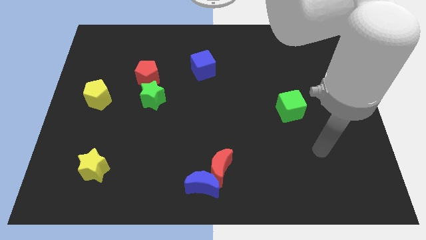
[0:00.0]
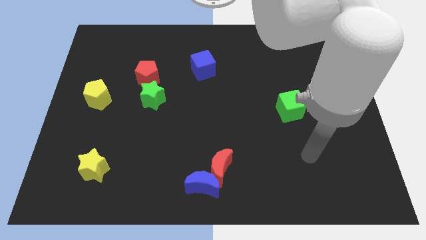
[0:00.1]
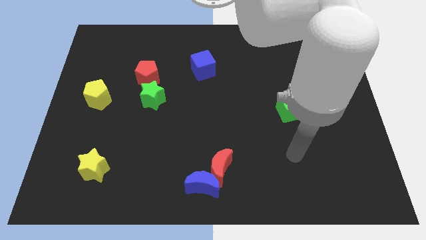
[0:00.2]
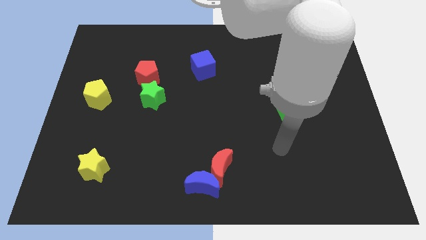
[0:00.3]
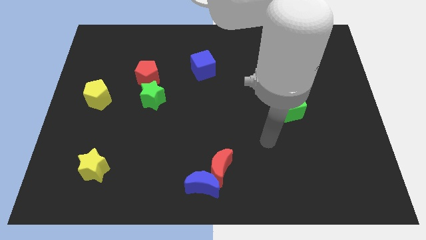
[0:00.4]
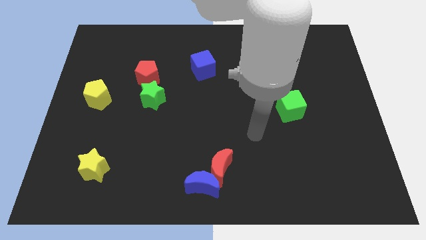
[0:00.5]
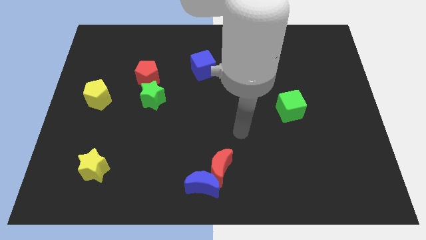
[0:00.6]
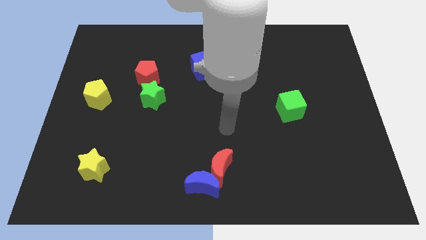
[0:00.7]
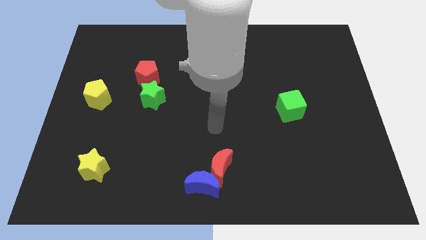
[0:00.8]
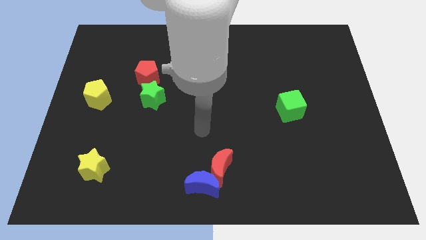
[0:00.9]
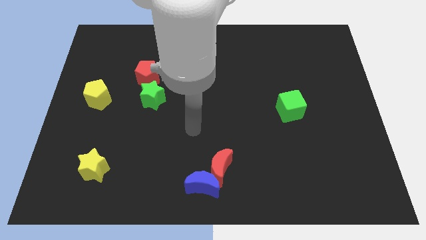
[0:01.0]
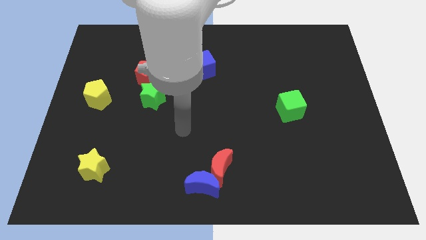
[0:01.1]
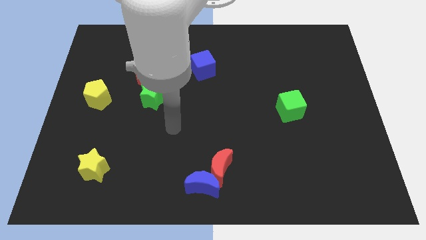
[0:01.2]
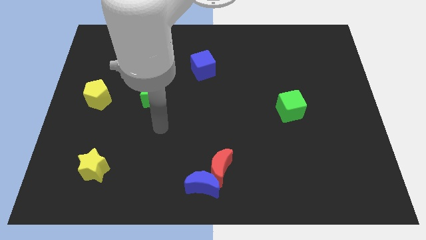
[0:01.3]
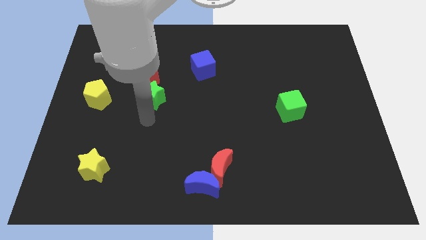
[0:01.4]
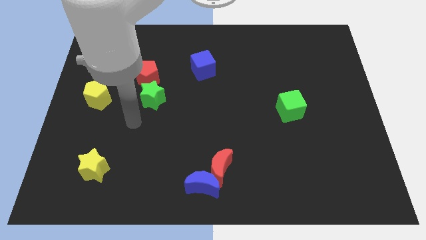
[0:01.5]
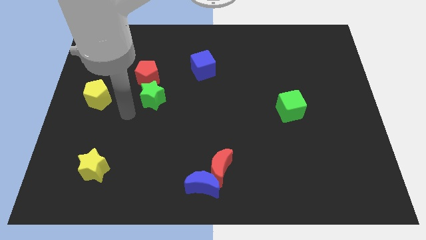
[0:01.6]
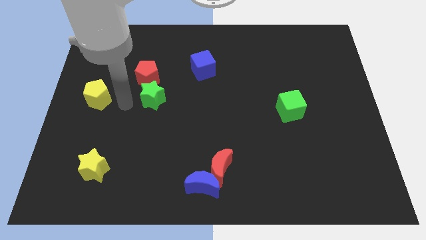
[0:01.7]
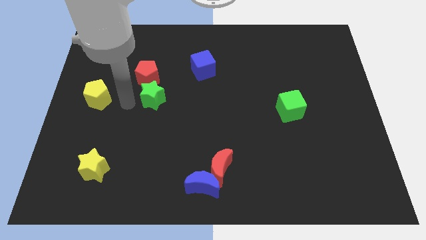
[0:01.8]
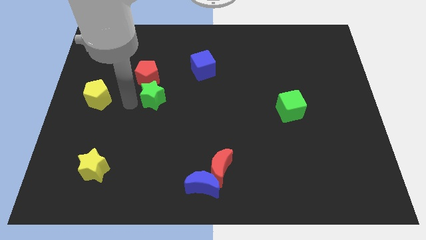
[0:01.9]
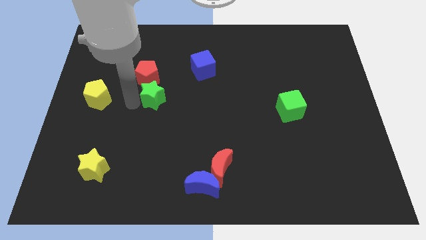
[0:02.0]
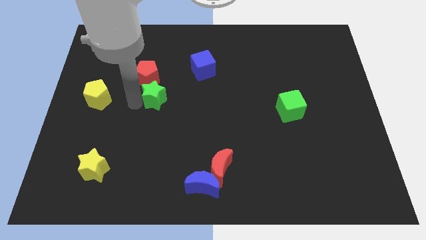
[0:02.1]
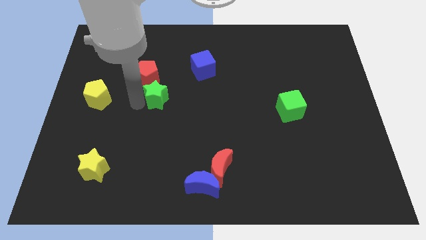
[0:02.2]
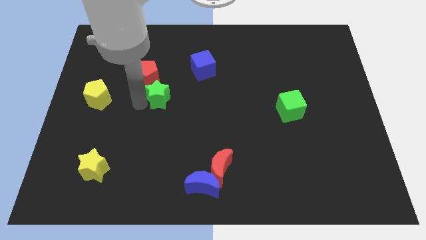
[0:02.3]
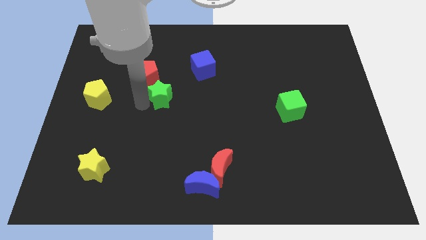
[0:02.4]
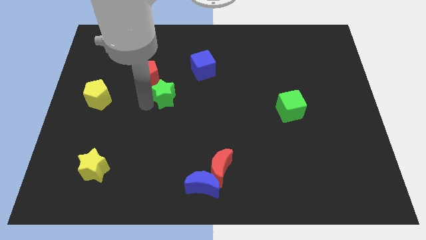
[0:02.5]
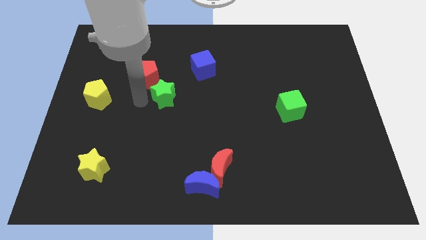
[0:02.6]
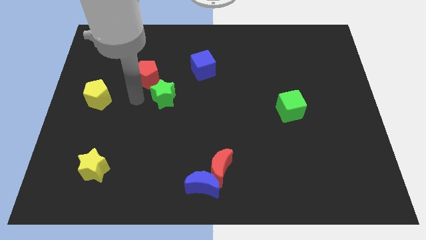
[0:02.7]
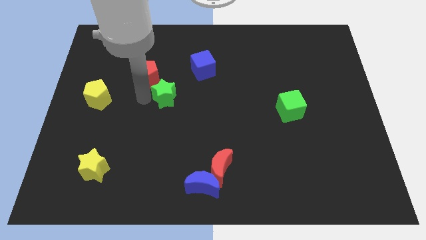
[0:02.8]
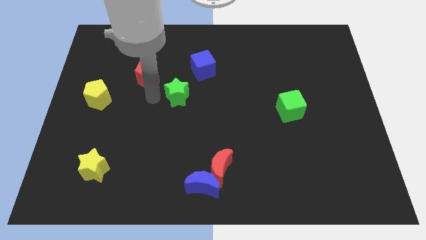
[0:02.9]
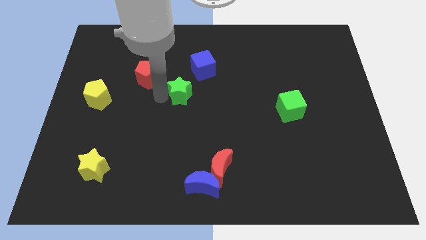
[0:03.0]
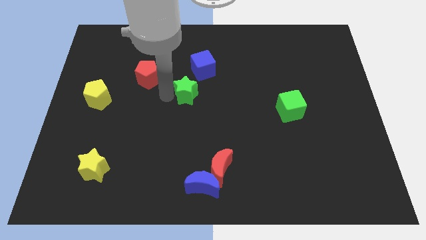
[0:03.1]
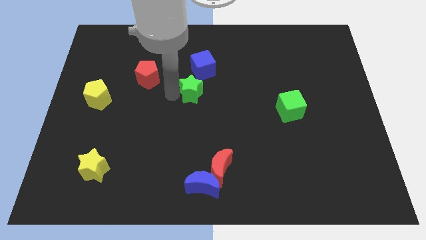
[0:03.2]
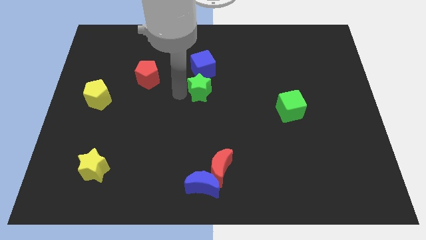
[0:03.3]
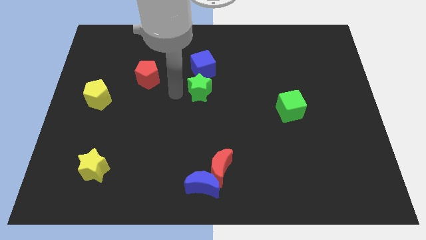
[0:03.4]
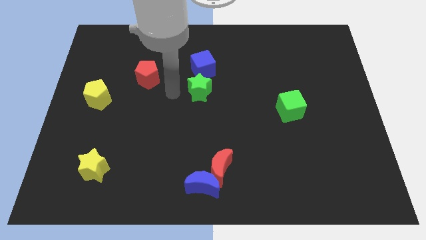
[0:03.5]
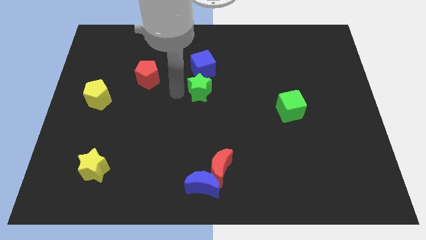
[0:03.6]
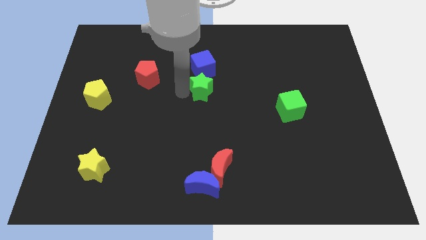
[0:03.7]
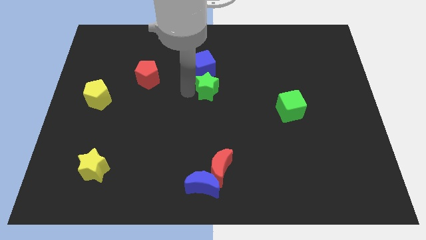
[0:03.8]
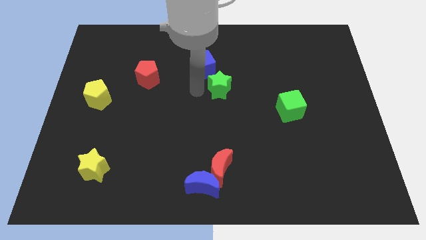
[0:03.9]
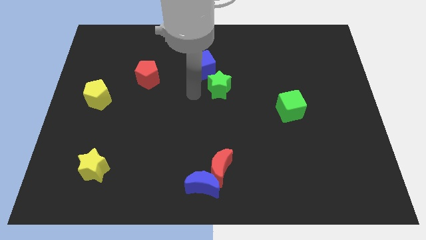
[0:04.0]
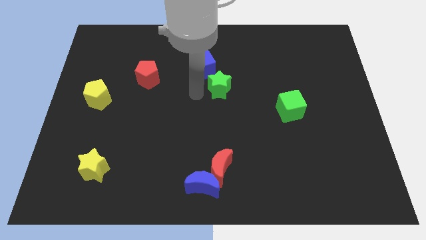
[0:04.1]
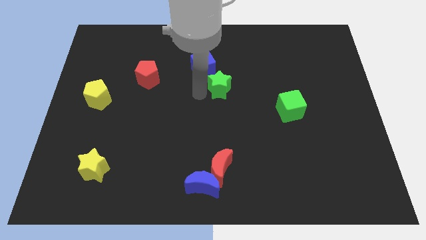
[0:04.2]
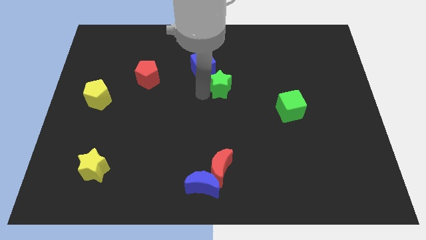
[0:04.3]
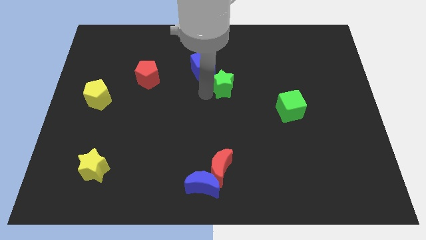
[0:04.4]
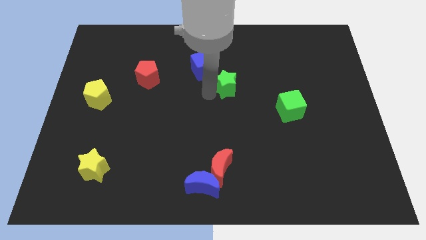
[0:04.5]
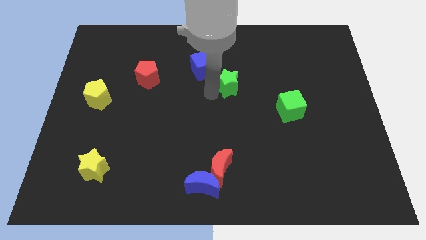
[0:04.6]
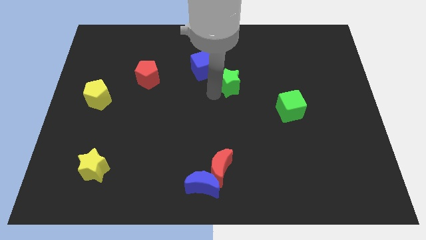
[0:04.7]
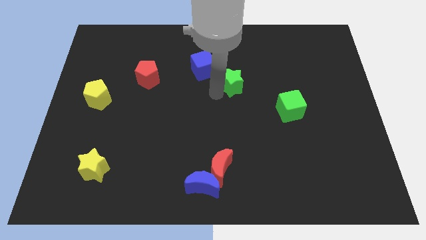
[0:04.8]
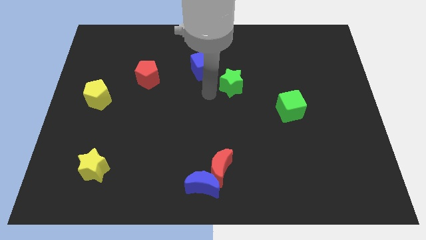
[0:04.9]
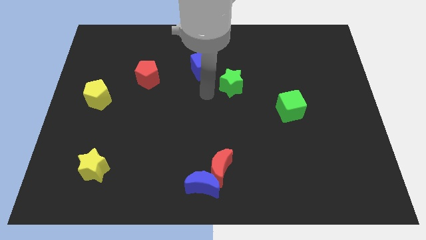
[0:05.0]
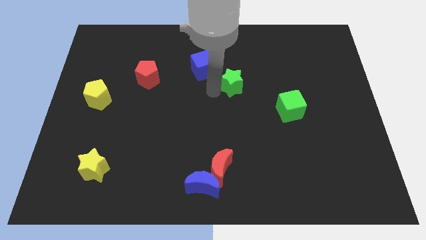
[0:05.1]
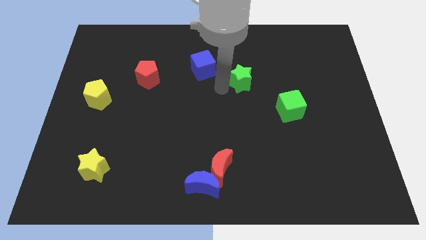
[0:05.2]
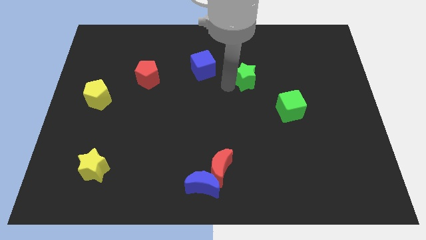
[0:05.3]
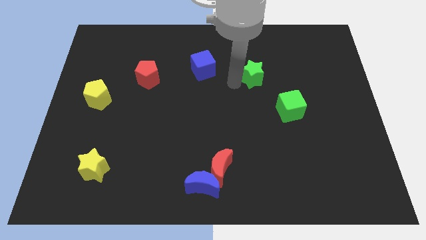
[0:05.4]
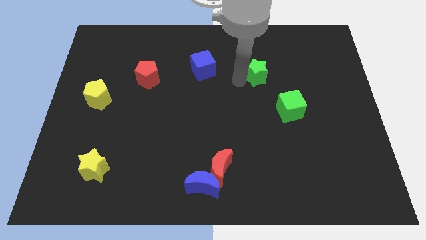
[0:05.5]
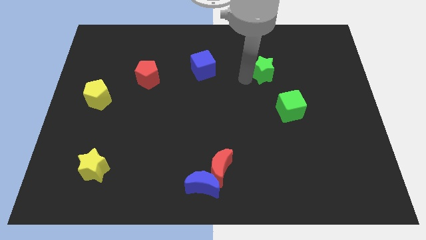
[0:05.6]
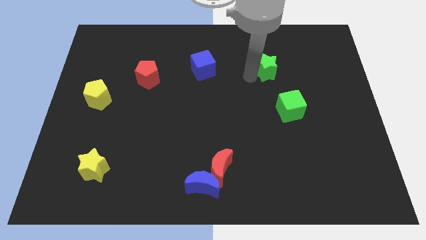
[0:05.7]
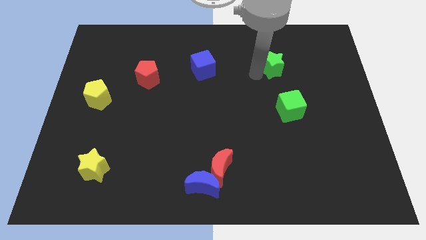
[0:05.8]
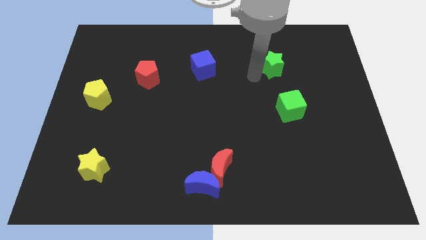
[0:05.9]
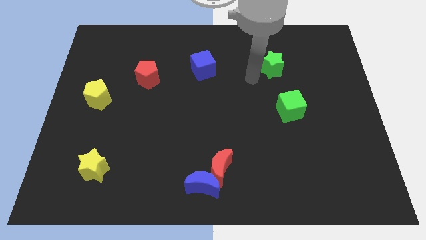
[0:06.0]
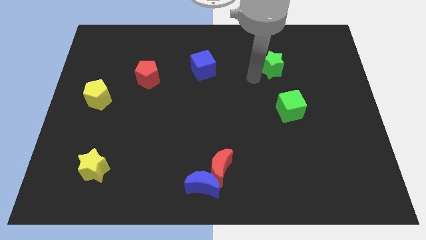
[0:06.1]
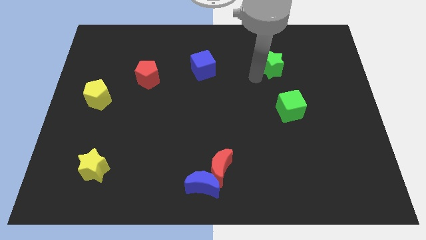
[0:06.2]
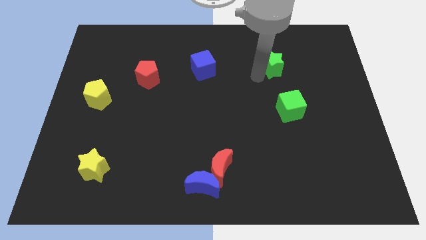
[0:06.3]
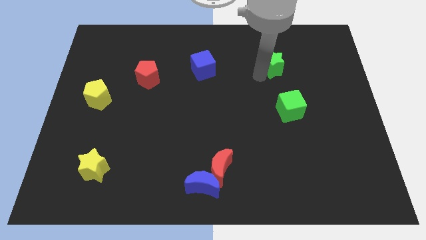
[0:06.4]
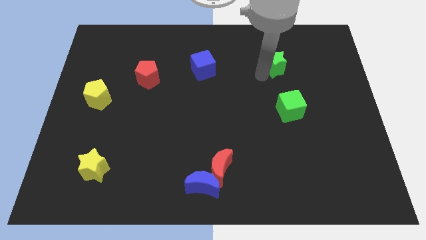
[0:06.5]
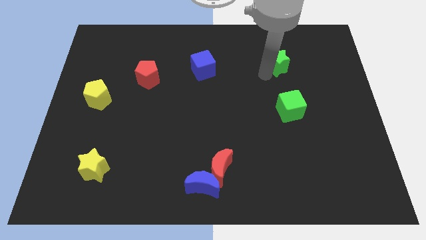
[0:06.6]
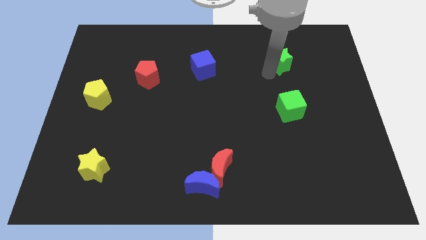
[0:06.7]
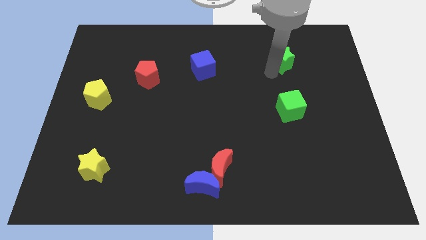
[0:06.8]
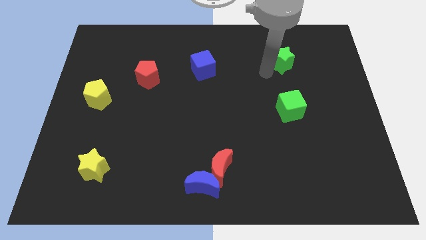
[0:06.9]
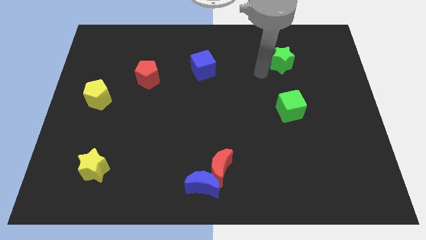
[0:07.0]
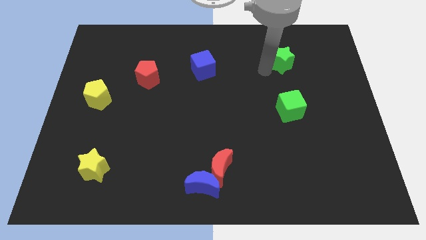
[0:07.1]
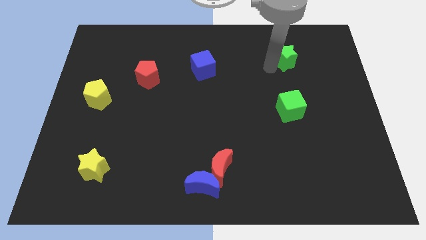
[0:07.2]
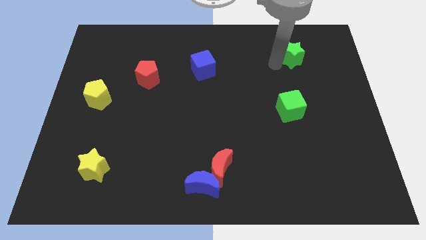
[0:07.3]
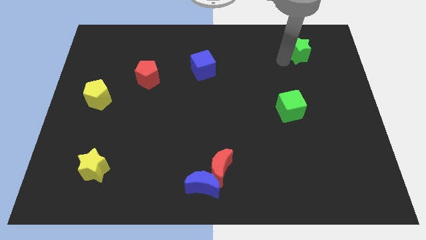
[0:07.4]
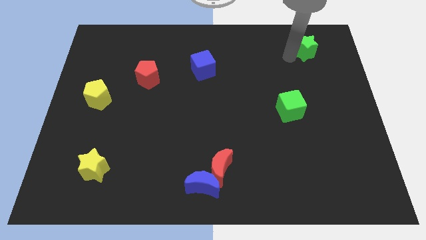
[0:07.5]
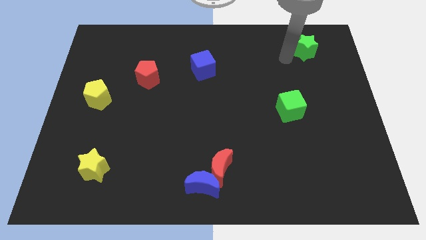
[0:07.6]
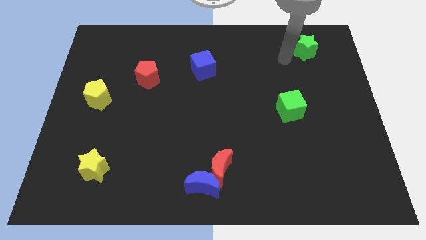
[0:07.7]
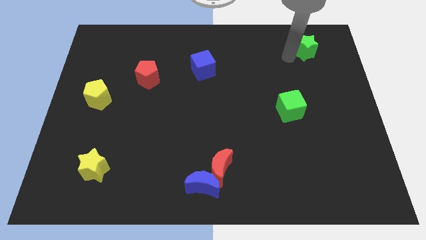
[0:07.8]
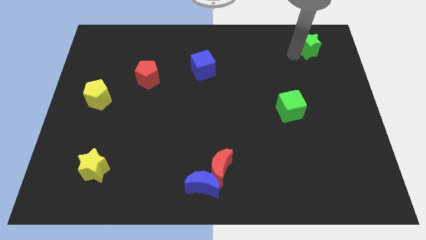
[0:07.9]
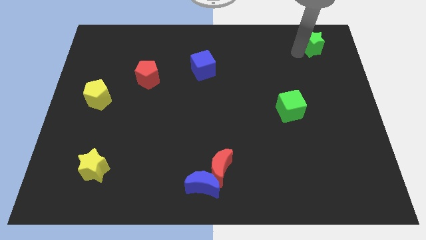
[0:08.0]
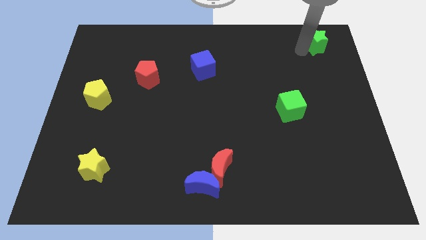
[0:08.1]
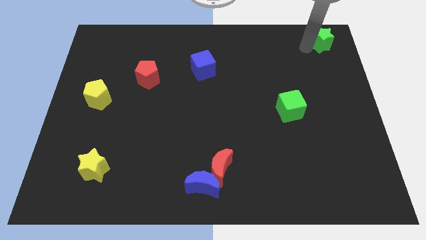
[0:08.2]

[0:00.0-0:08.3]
move the green star to the top right
